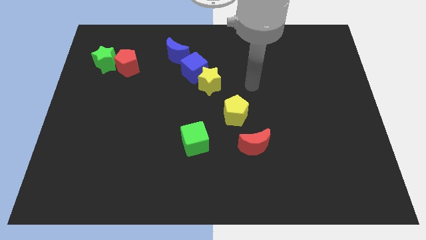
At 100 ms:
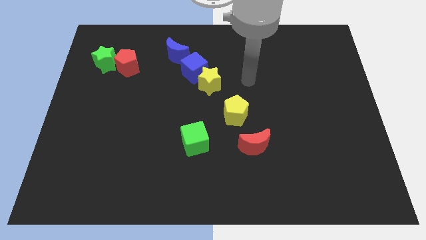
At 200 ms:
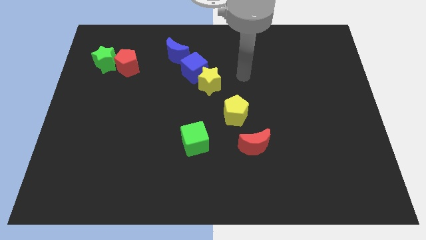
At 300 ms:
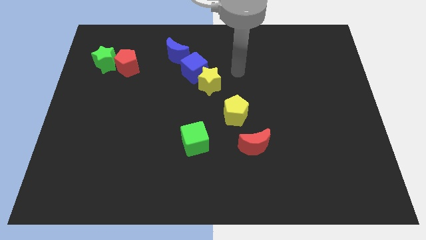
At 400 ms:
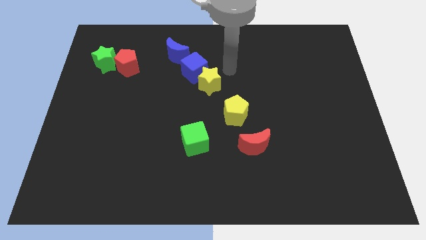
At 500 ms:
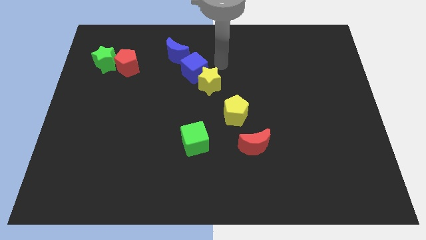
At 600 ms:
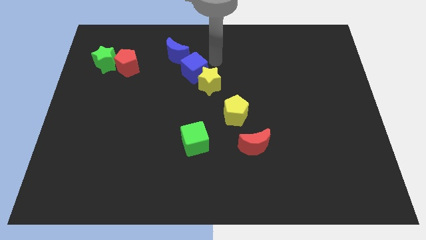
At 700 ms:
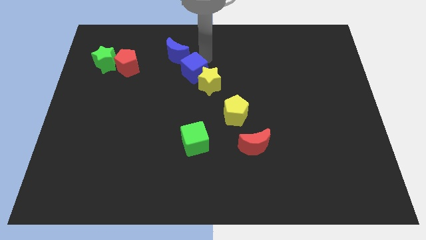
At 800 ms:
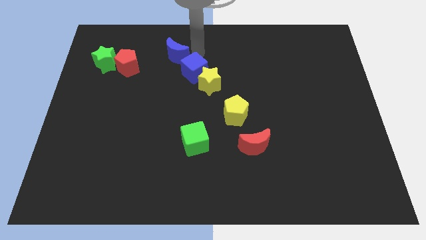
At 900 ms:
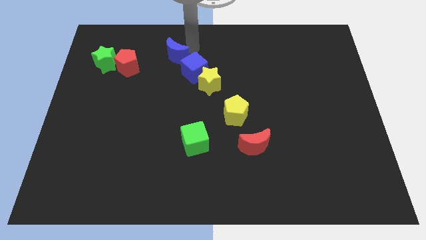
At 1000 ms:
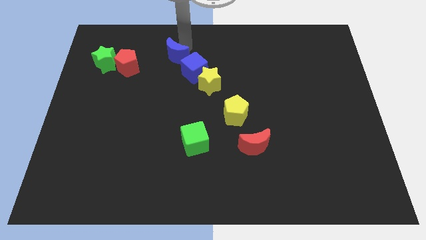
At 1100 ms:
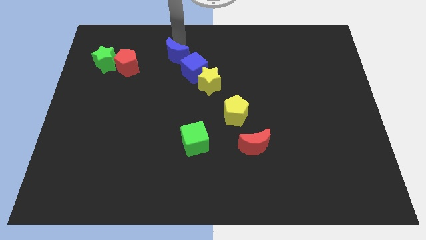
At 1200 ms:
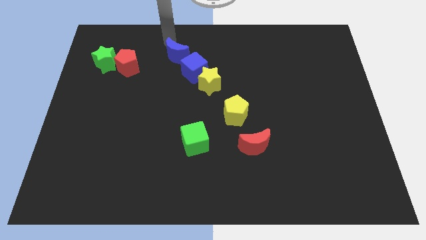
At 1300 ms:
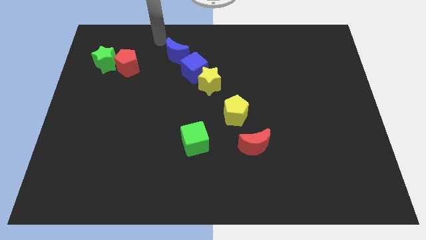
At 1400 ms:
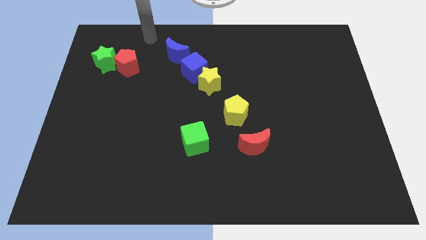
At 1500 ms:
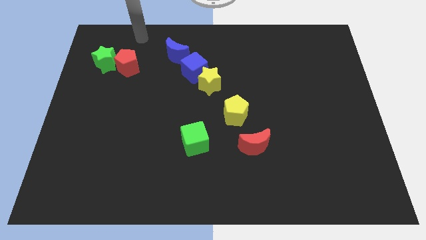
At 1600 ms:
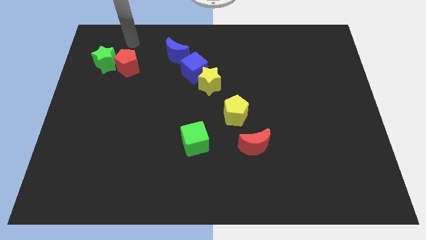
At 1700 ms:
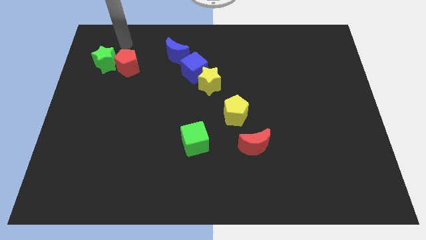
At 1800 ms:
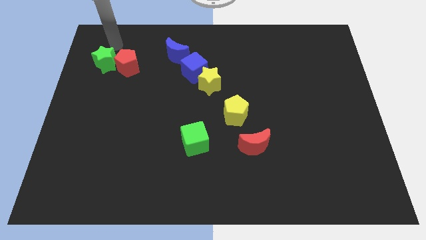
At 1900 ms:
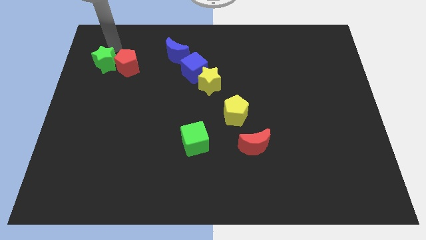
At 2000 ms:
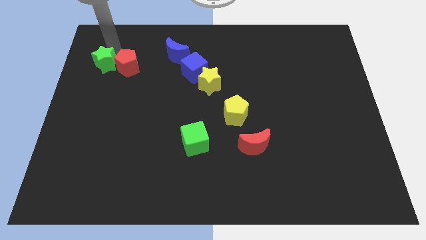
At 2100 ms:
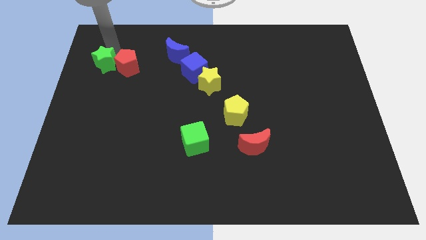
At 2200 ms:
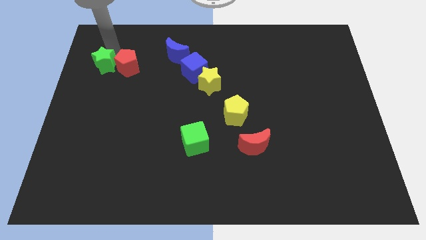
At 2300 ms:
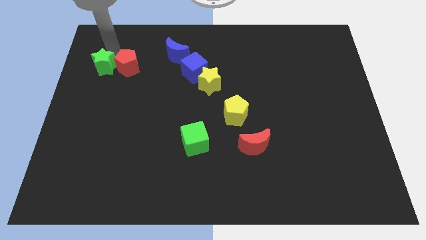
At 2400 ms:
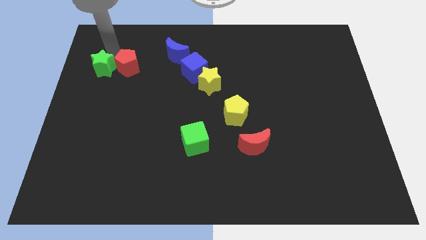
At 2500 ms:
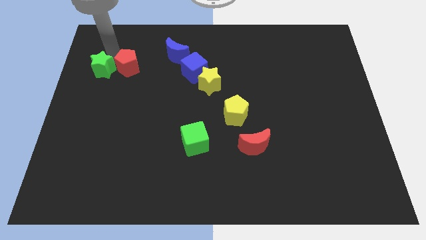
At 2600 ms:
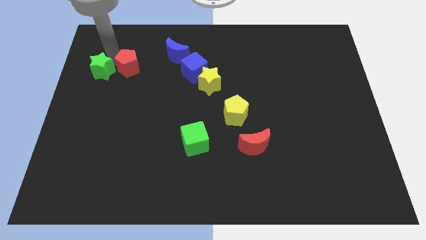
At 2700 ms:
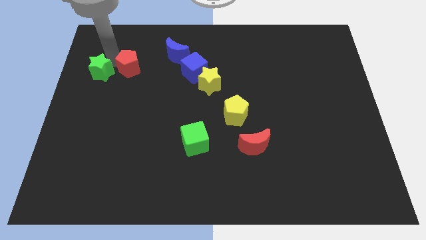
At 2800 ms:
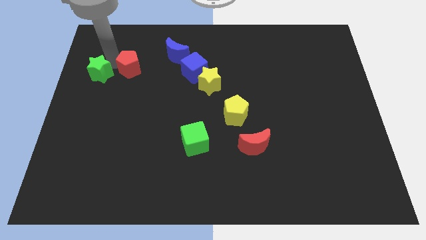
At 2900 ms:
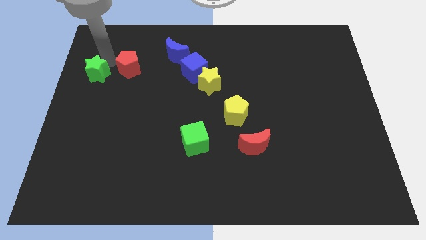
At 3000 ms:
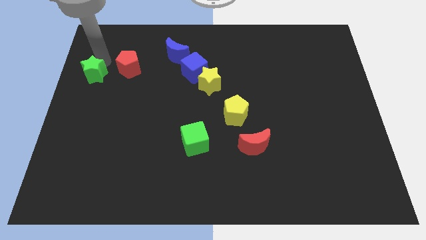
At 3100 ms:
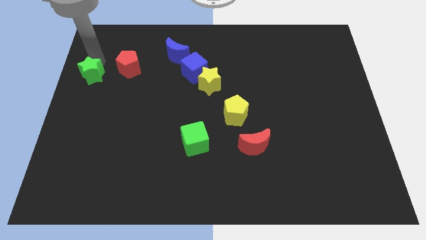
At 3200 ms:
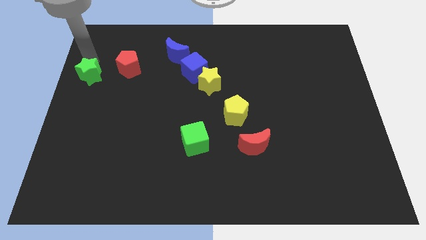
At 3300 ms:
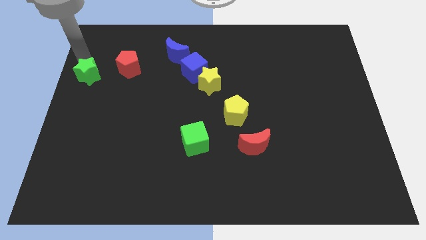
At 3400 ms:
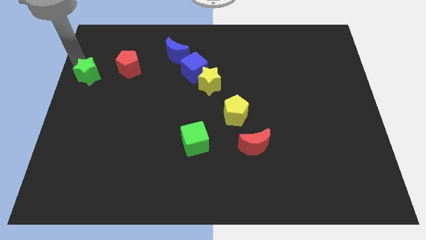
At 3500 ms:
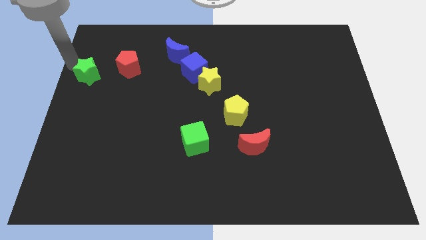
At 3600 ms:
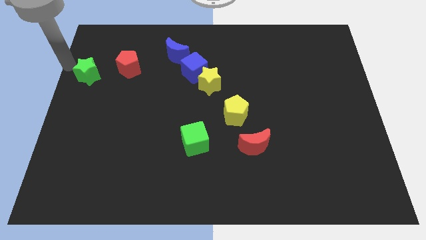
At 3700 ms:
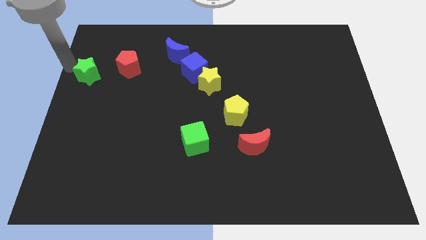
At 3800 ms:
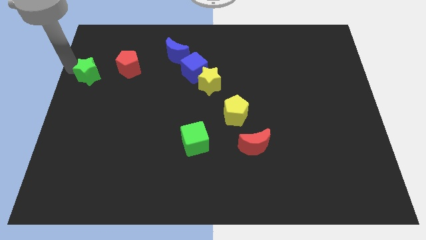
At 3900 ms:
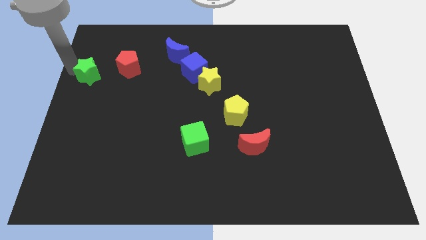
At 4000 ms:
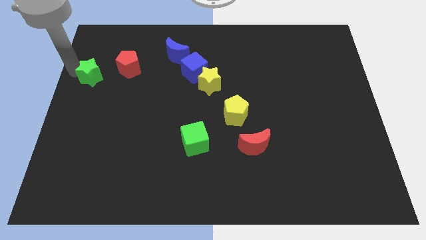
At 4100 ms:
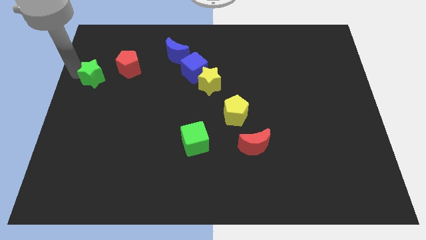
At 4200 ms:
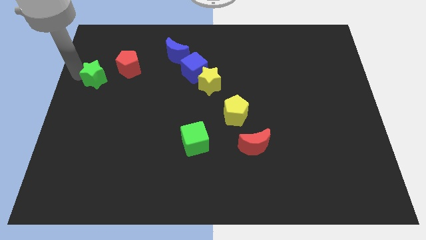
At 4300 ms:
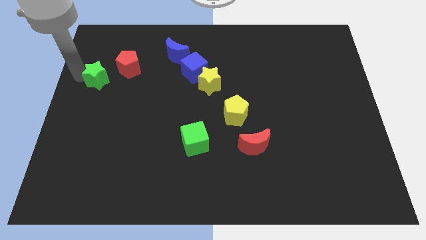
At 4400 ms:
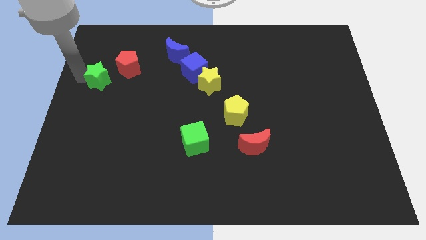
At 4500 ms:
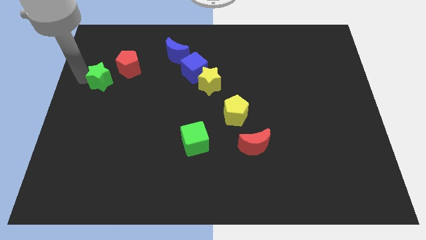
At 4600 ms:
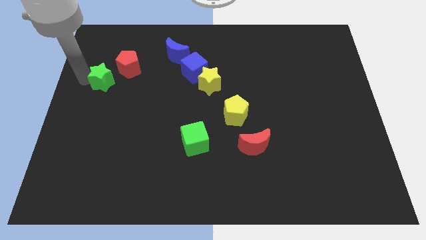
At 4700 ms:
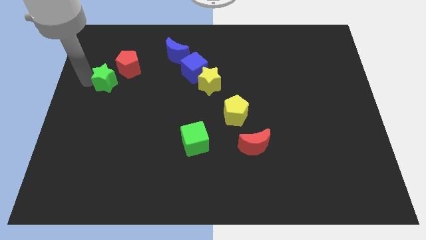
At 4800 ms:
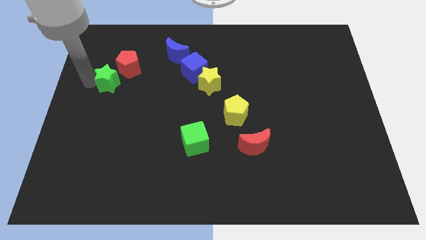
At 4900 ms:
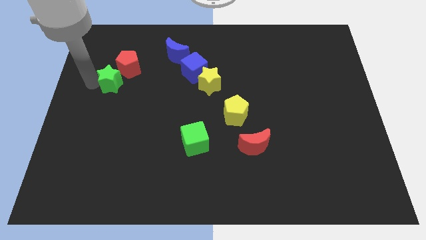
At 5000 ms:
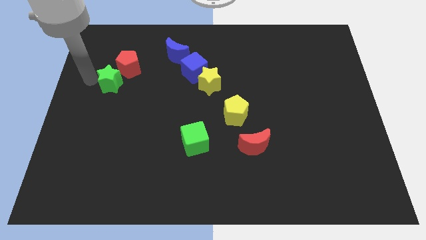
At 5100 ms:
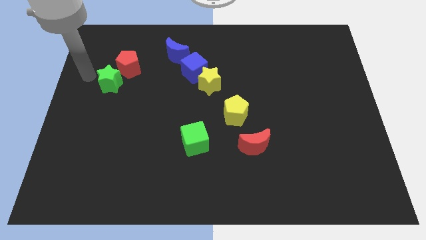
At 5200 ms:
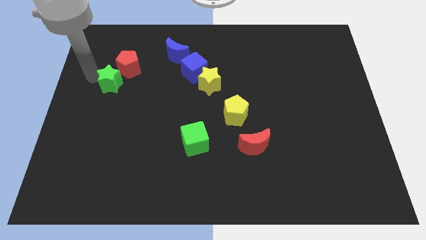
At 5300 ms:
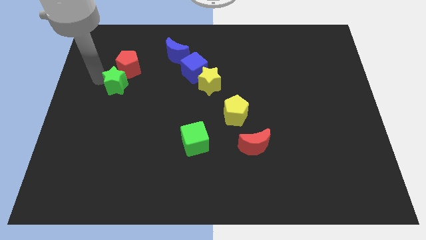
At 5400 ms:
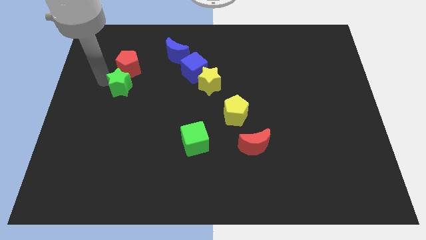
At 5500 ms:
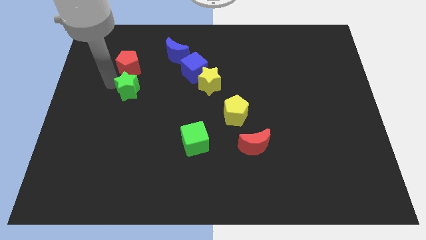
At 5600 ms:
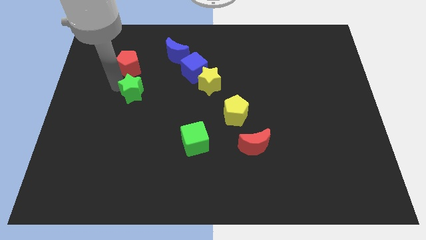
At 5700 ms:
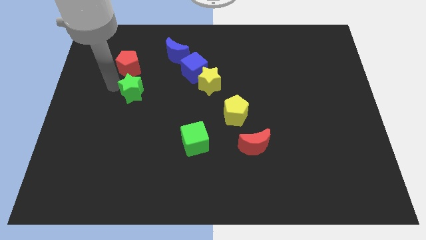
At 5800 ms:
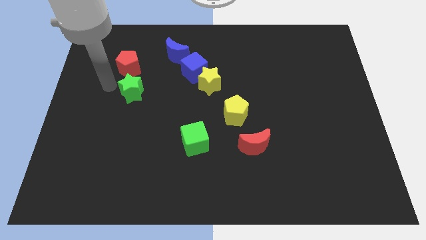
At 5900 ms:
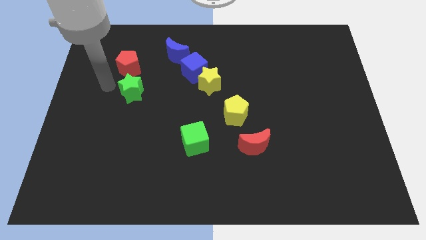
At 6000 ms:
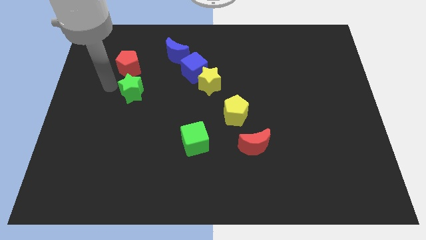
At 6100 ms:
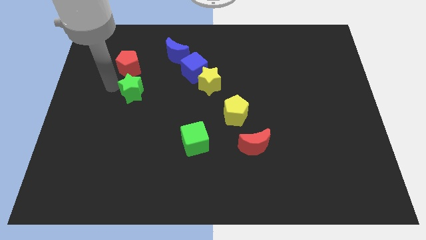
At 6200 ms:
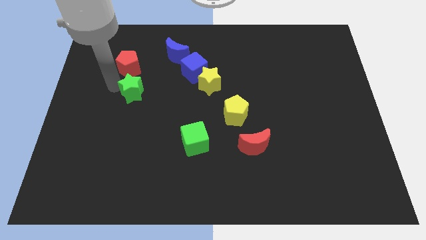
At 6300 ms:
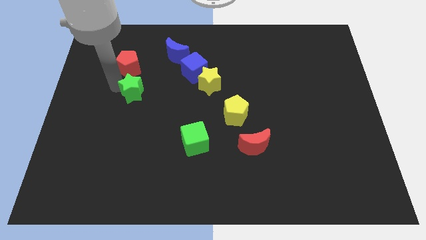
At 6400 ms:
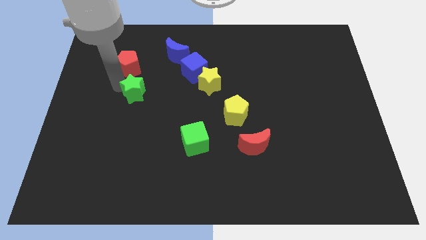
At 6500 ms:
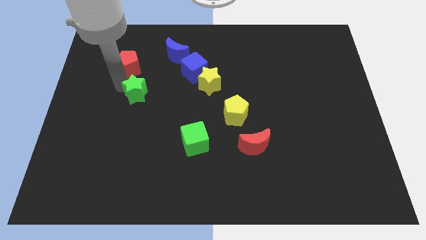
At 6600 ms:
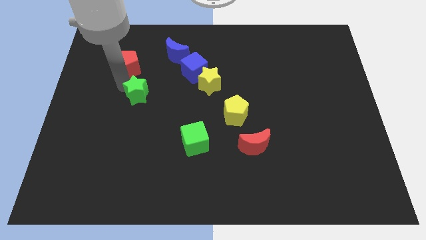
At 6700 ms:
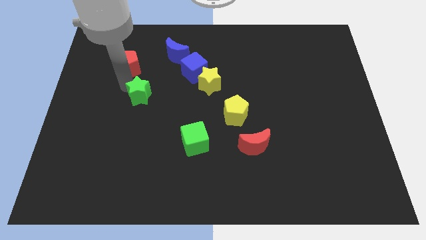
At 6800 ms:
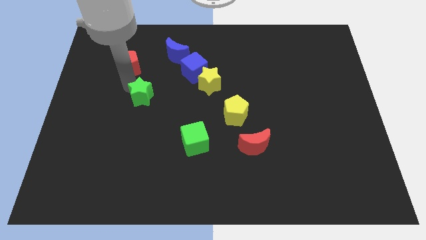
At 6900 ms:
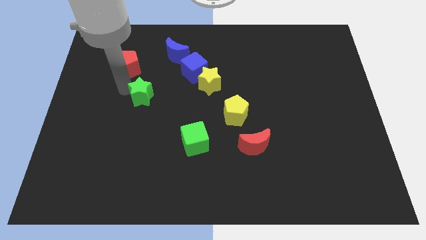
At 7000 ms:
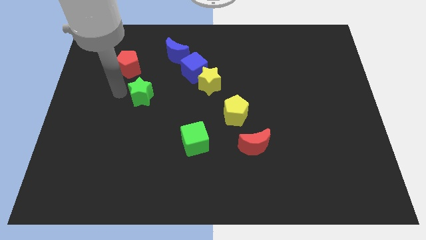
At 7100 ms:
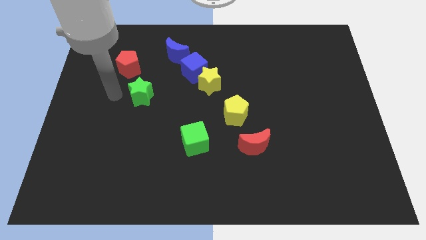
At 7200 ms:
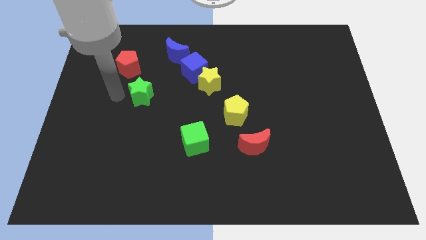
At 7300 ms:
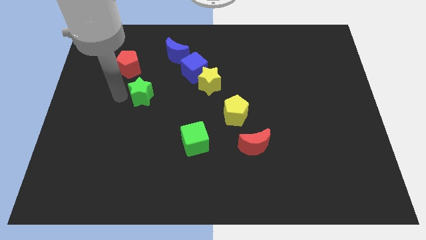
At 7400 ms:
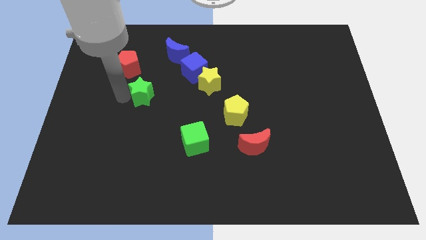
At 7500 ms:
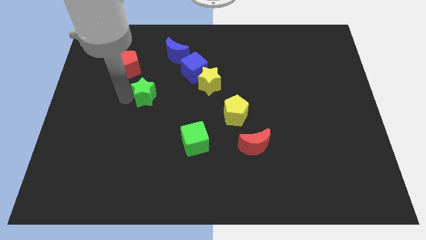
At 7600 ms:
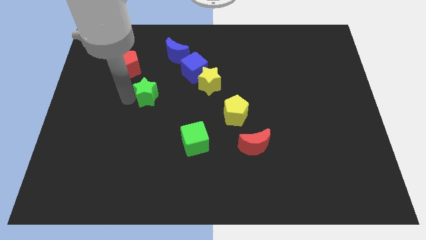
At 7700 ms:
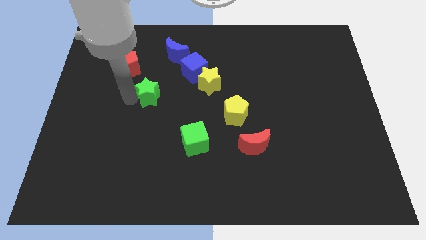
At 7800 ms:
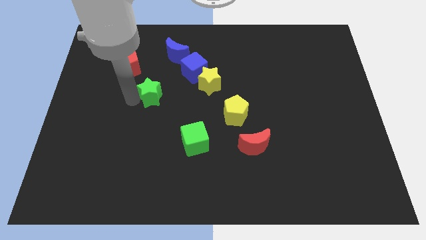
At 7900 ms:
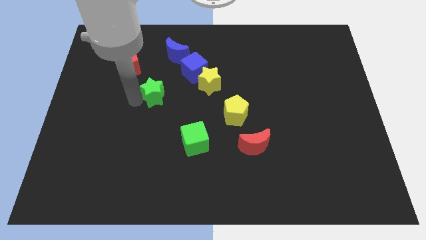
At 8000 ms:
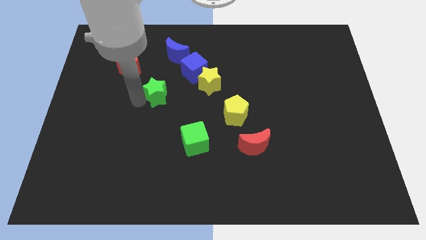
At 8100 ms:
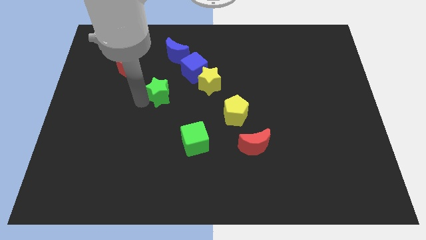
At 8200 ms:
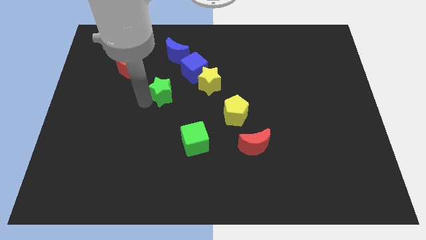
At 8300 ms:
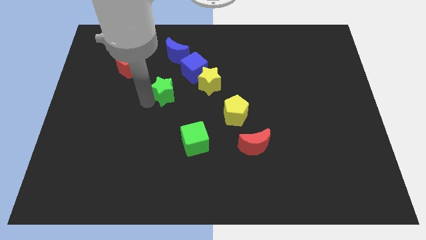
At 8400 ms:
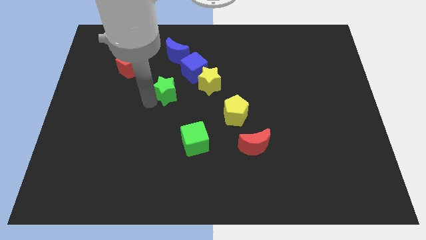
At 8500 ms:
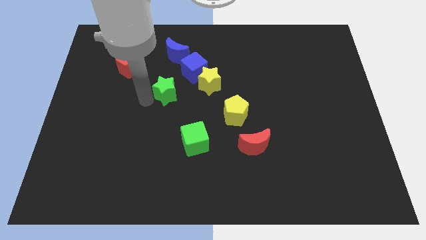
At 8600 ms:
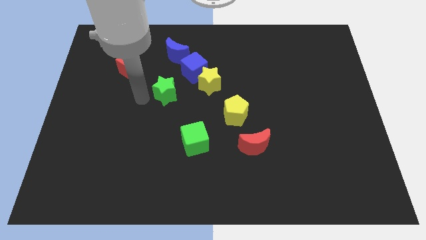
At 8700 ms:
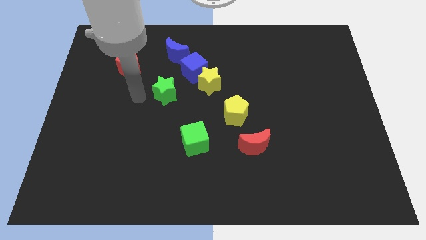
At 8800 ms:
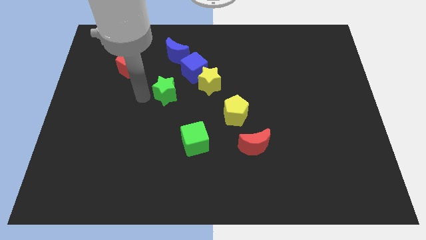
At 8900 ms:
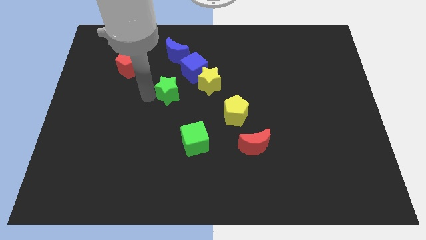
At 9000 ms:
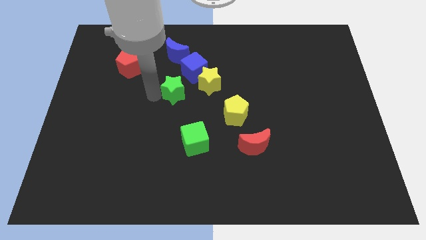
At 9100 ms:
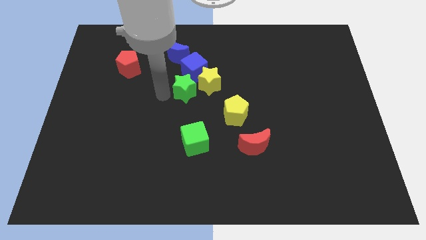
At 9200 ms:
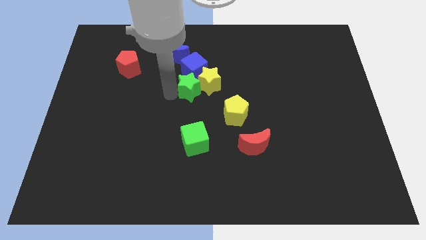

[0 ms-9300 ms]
move the green star to the yellow star
